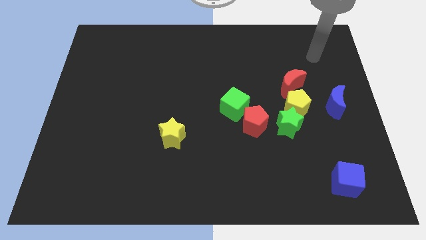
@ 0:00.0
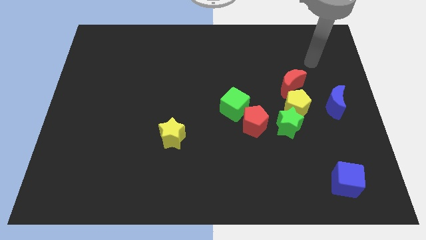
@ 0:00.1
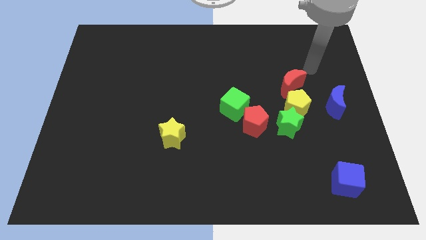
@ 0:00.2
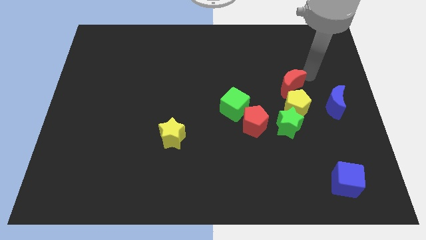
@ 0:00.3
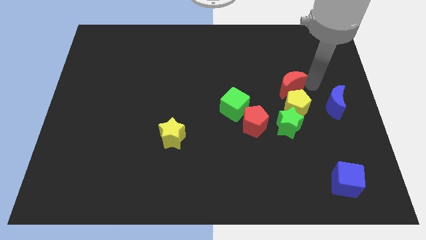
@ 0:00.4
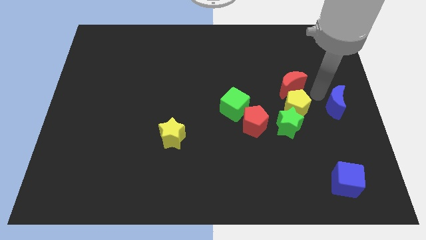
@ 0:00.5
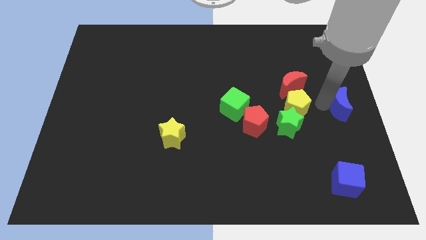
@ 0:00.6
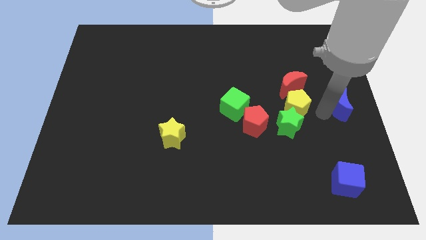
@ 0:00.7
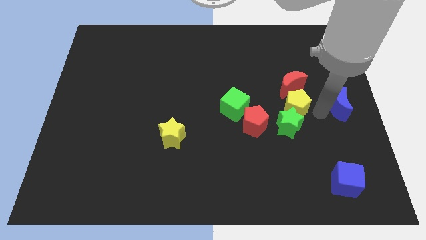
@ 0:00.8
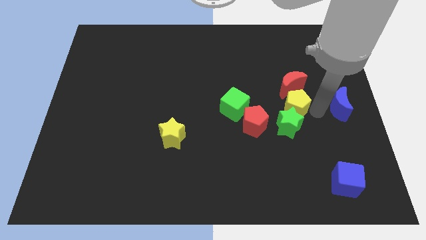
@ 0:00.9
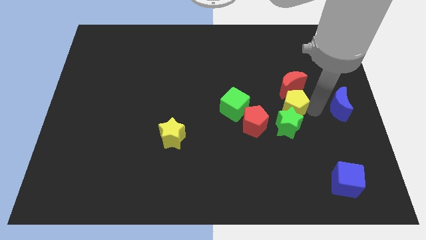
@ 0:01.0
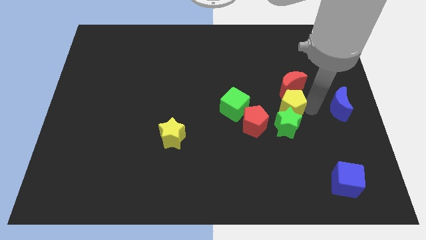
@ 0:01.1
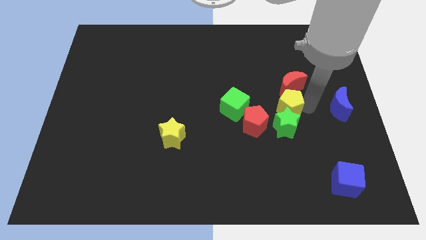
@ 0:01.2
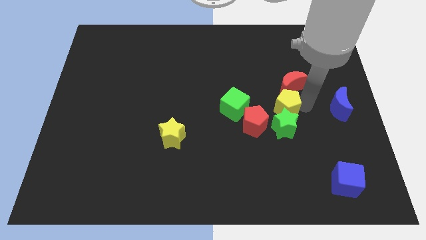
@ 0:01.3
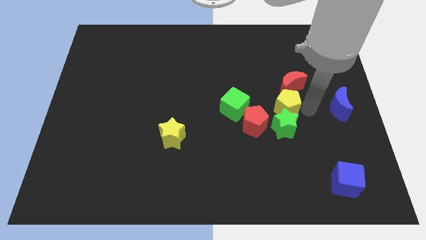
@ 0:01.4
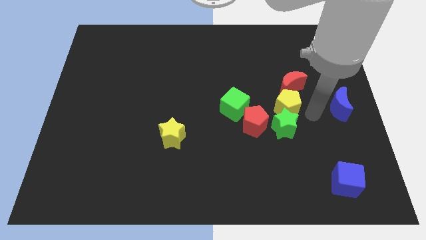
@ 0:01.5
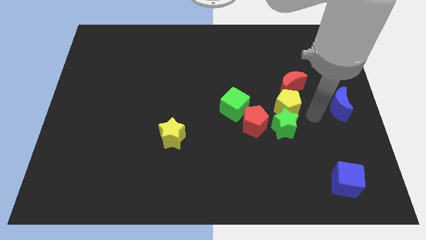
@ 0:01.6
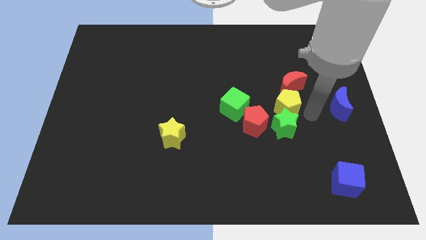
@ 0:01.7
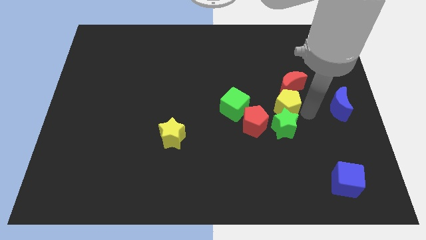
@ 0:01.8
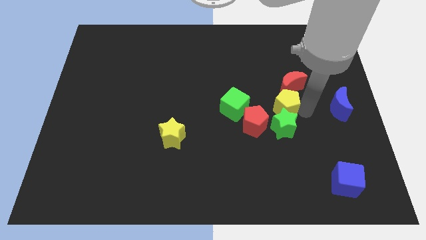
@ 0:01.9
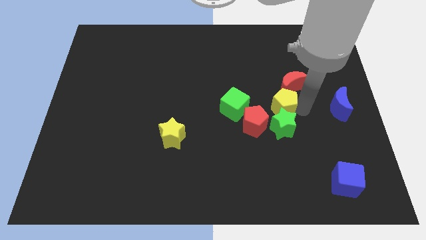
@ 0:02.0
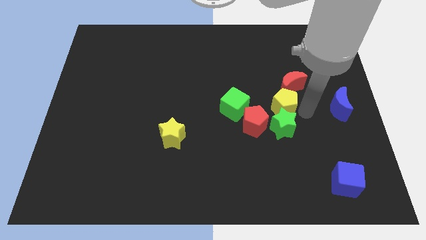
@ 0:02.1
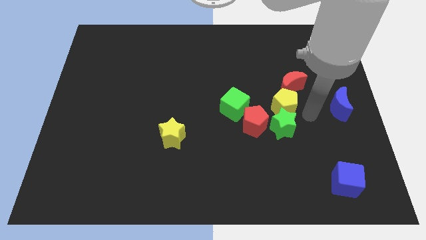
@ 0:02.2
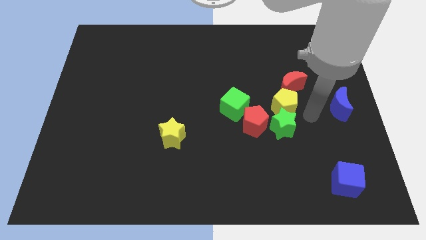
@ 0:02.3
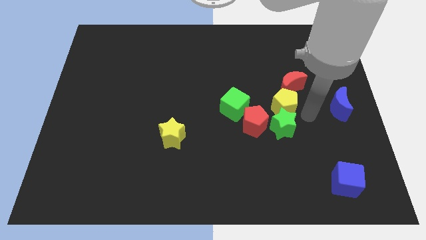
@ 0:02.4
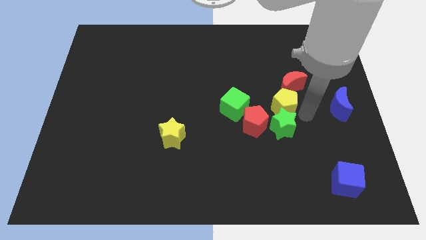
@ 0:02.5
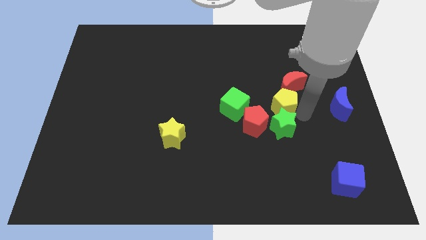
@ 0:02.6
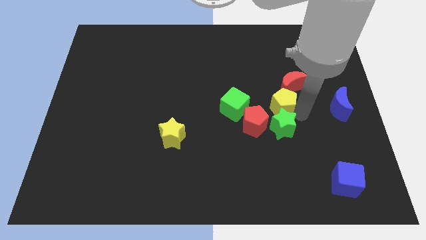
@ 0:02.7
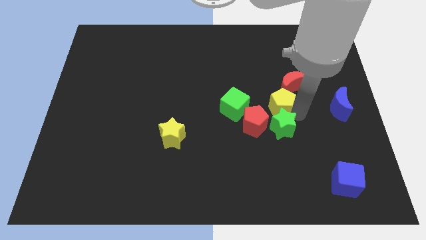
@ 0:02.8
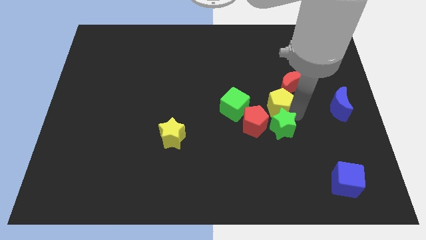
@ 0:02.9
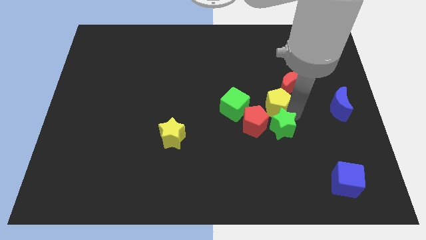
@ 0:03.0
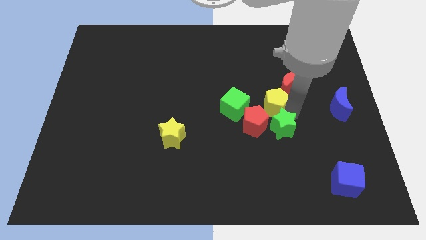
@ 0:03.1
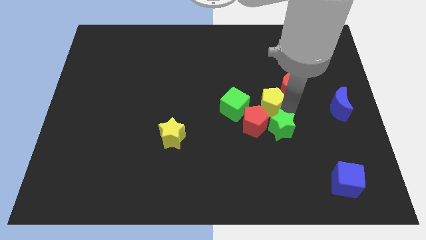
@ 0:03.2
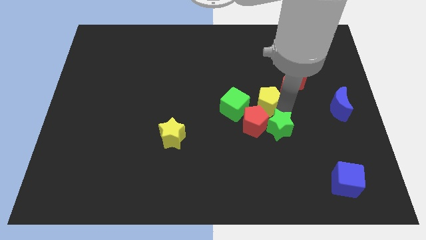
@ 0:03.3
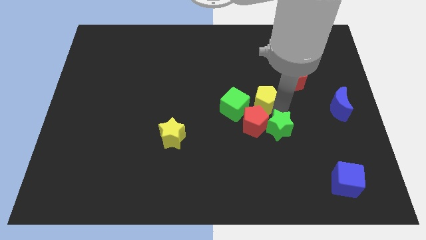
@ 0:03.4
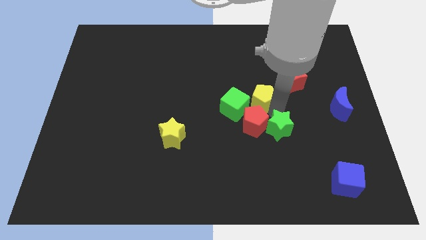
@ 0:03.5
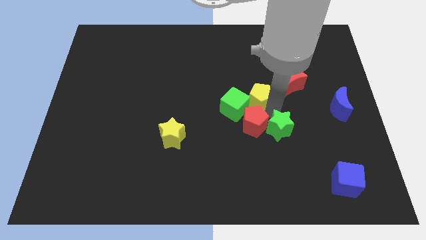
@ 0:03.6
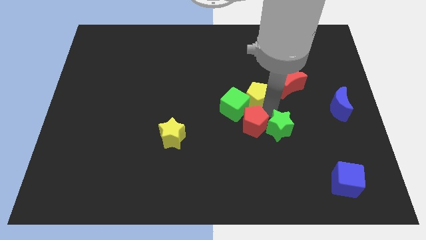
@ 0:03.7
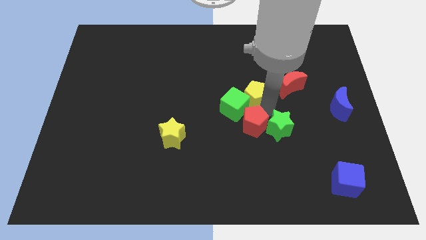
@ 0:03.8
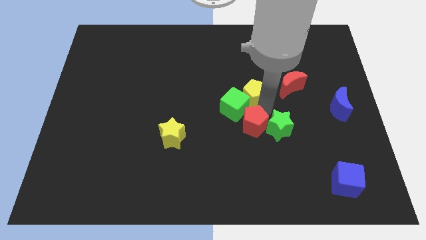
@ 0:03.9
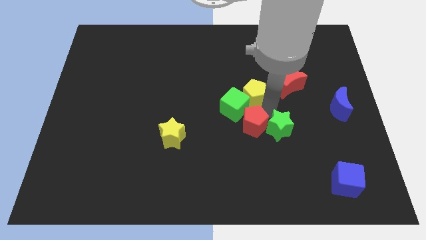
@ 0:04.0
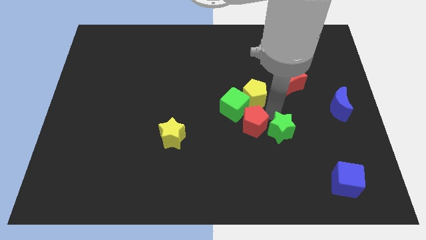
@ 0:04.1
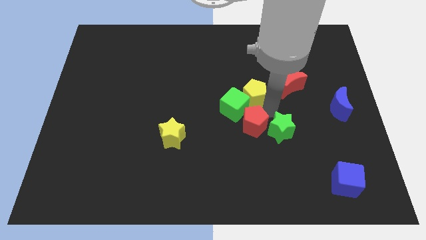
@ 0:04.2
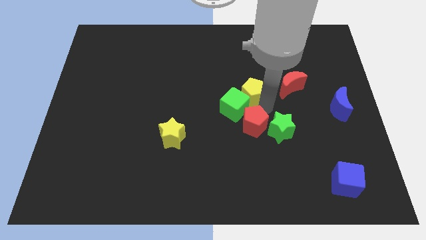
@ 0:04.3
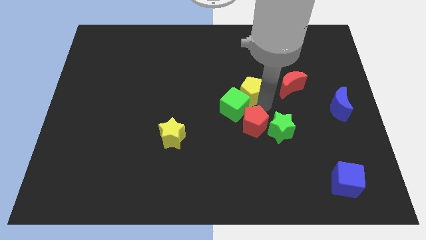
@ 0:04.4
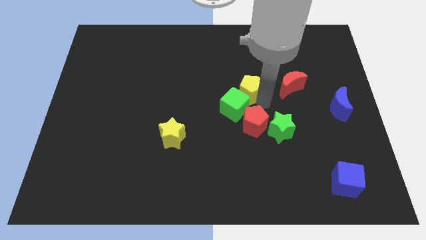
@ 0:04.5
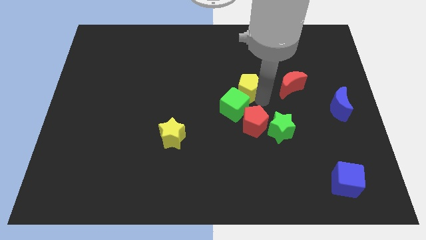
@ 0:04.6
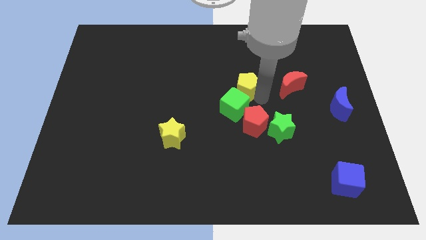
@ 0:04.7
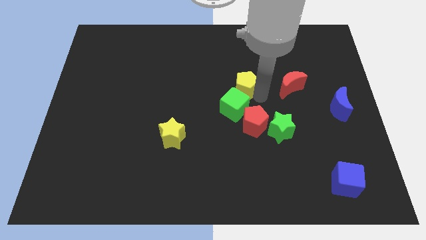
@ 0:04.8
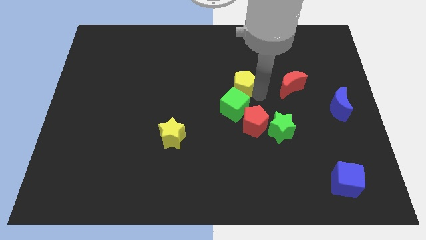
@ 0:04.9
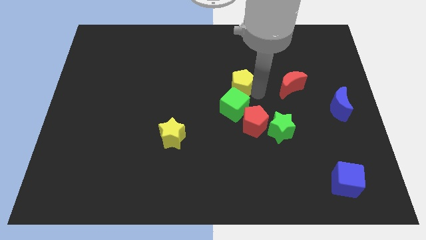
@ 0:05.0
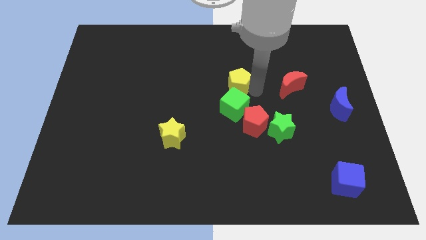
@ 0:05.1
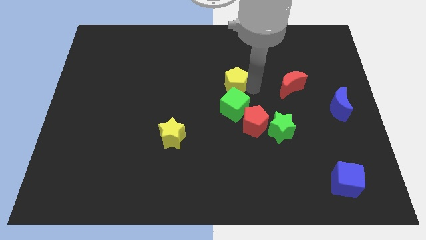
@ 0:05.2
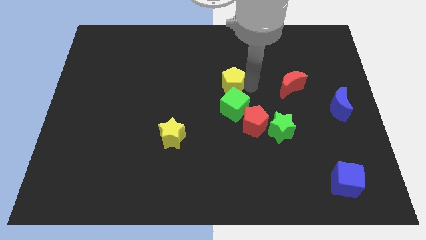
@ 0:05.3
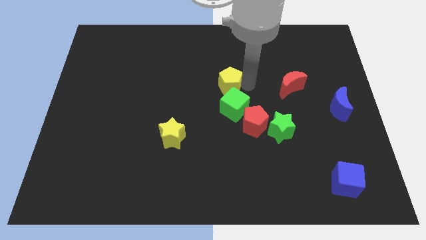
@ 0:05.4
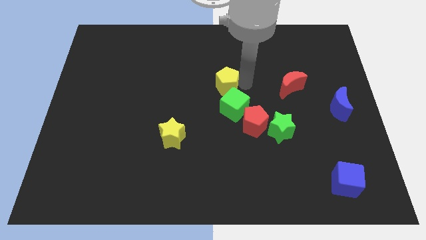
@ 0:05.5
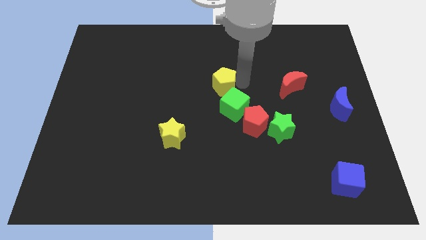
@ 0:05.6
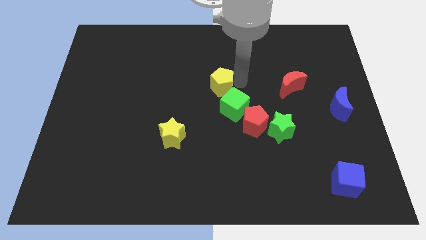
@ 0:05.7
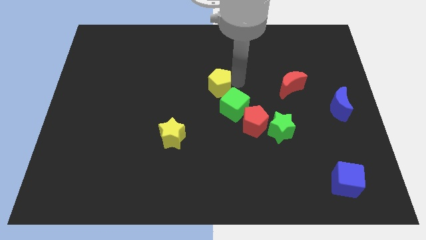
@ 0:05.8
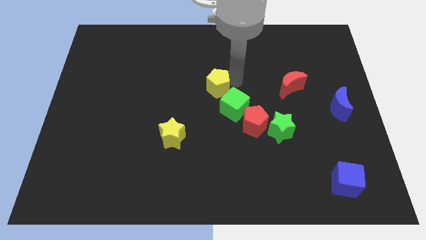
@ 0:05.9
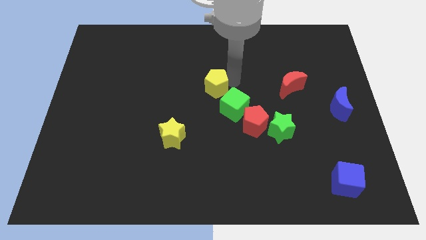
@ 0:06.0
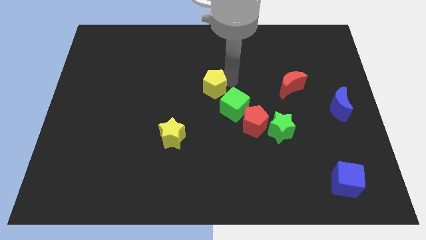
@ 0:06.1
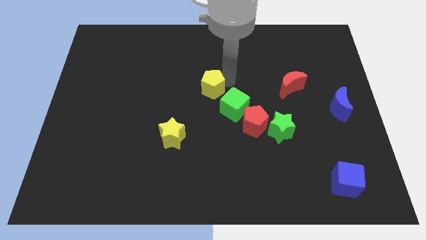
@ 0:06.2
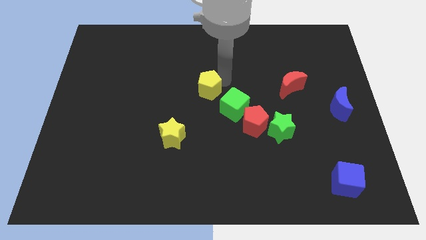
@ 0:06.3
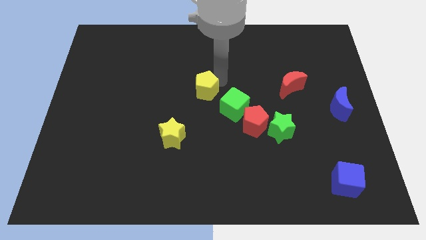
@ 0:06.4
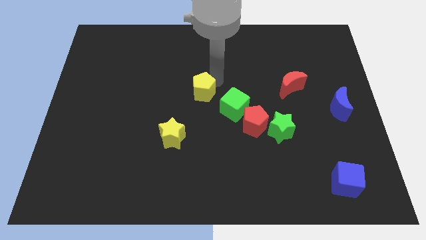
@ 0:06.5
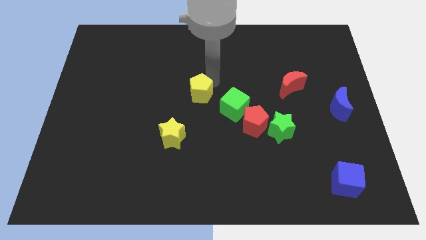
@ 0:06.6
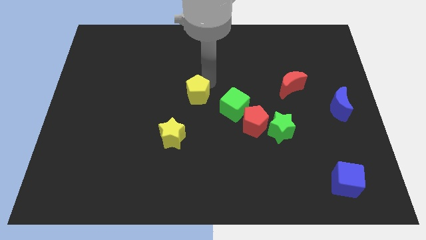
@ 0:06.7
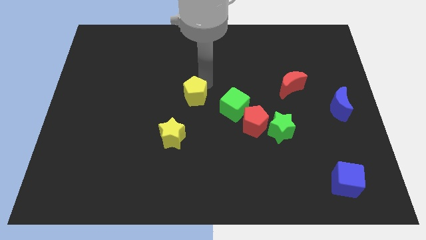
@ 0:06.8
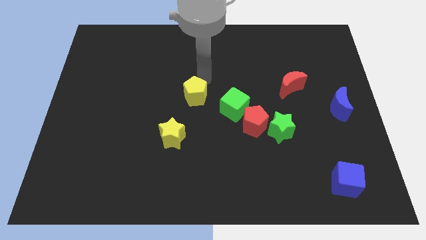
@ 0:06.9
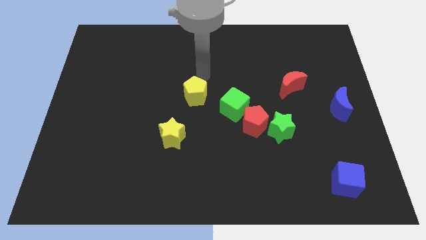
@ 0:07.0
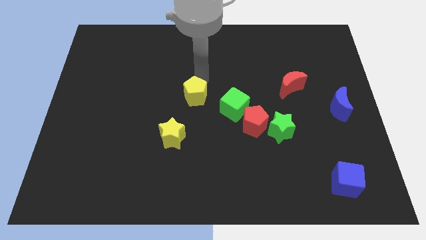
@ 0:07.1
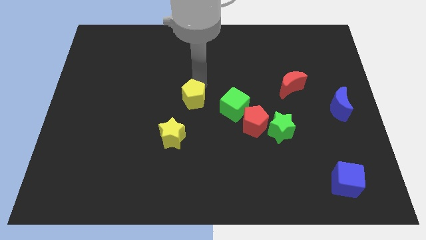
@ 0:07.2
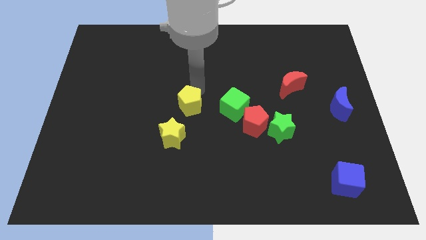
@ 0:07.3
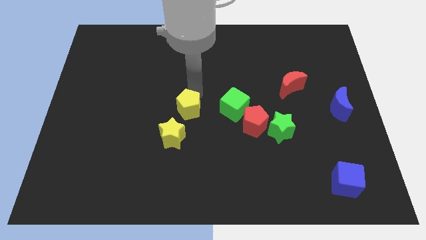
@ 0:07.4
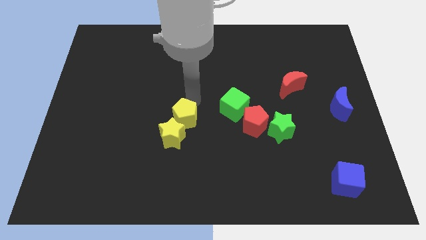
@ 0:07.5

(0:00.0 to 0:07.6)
push the yellow pentagon next to the yellow star
